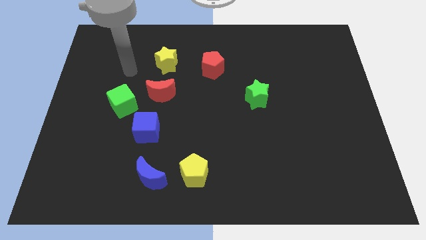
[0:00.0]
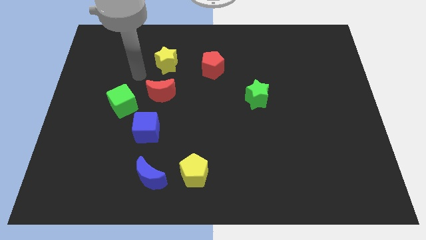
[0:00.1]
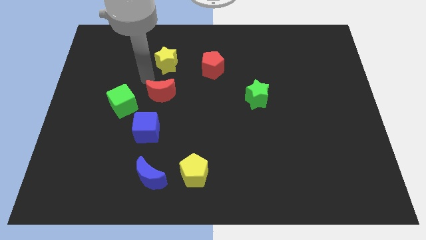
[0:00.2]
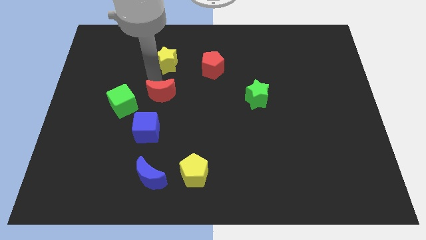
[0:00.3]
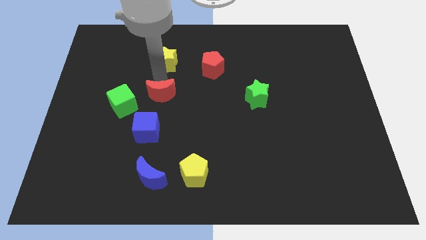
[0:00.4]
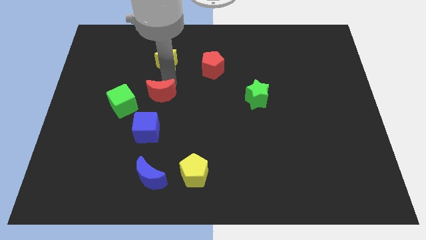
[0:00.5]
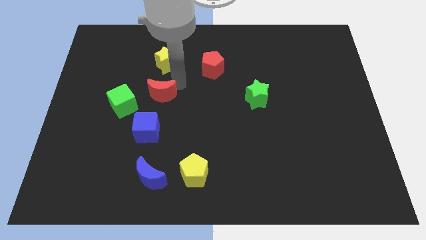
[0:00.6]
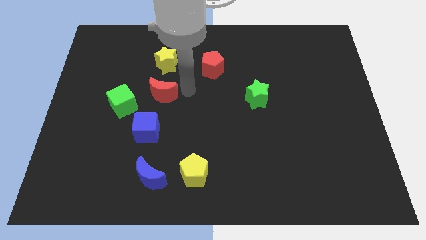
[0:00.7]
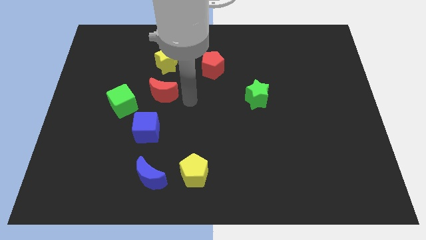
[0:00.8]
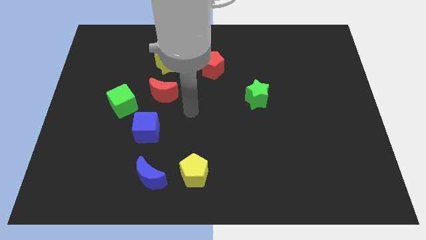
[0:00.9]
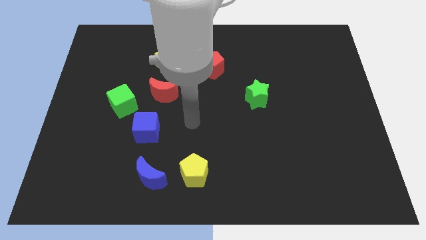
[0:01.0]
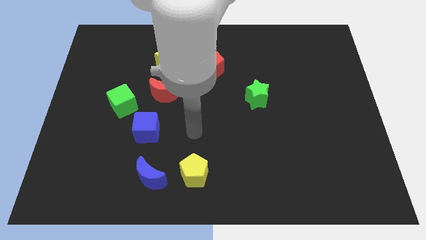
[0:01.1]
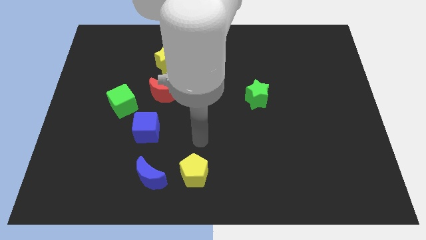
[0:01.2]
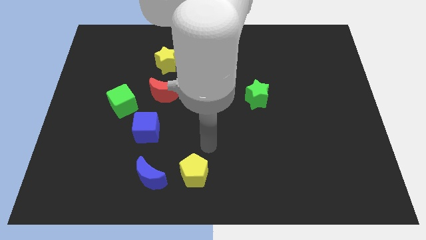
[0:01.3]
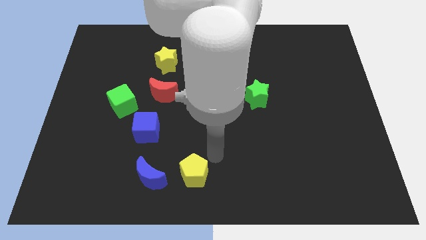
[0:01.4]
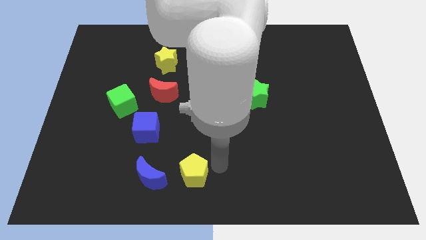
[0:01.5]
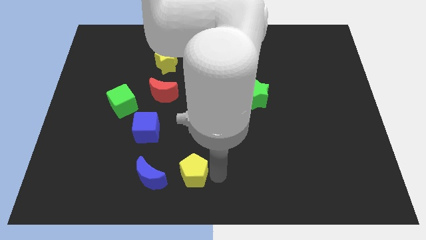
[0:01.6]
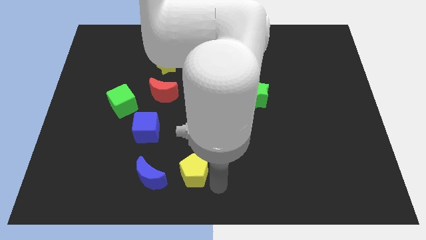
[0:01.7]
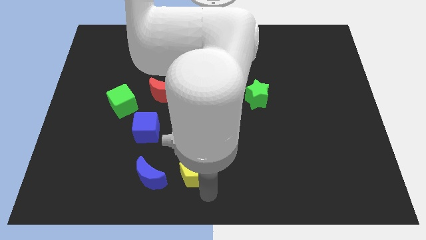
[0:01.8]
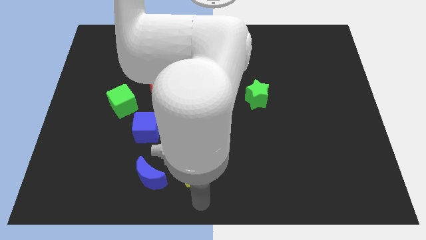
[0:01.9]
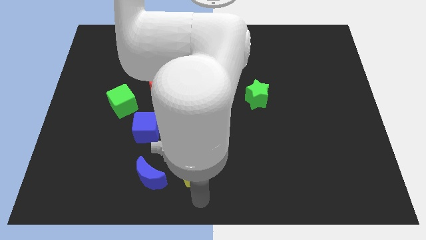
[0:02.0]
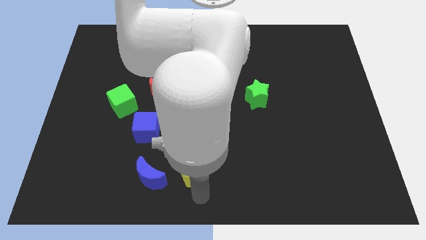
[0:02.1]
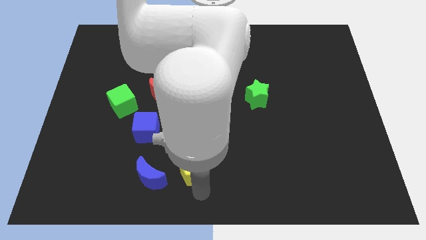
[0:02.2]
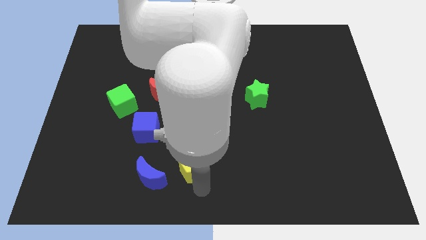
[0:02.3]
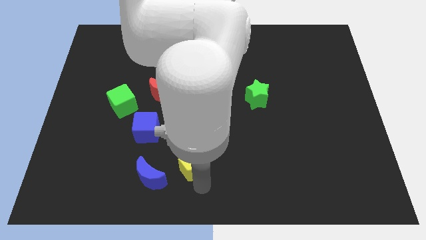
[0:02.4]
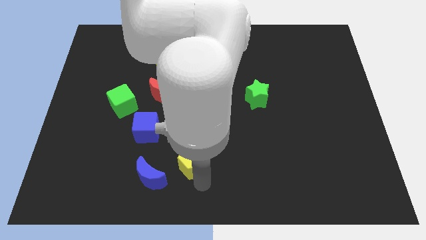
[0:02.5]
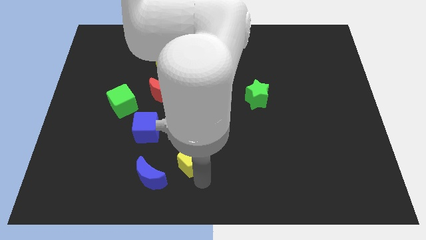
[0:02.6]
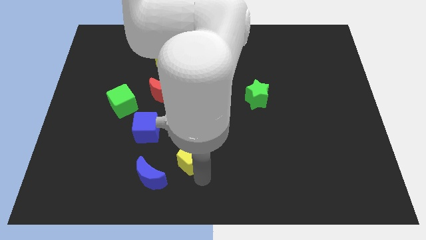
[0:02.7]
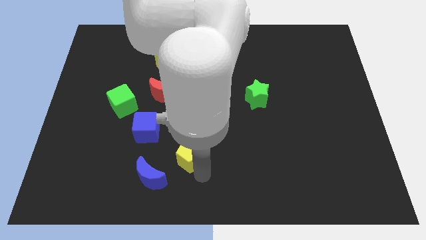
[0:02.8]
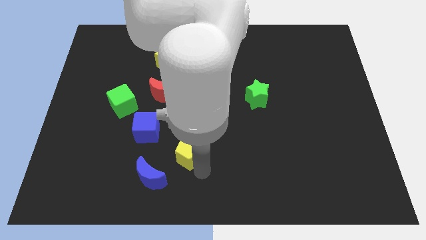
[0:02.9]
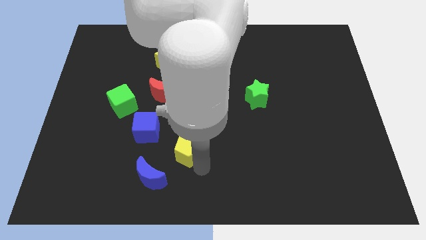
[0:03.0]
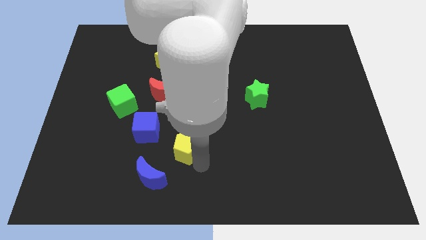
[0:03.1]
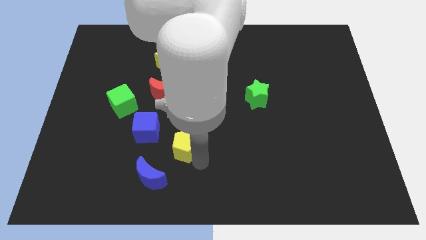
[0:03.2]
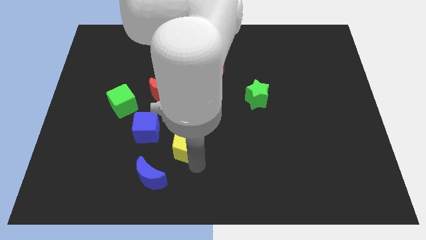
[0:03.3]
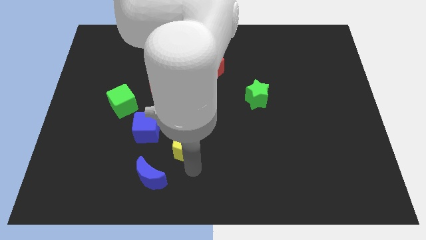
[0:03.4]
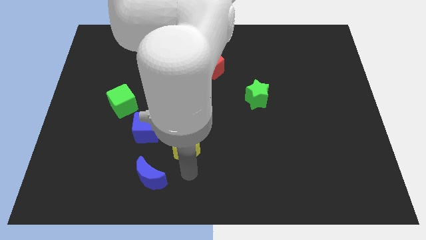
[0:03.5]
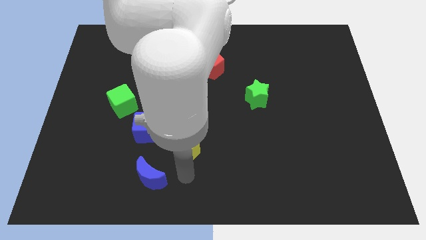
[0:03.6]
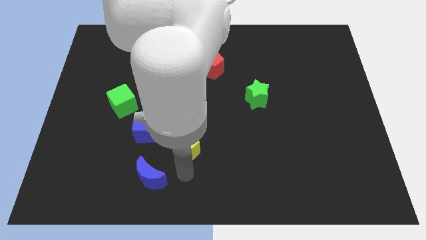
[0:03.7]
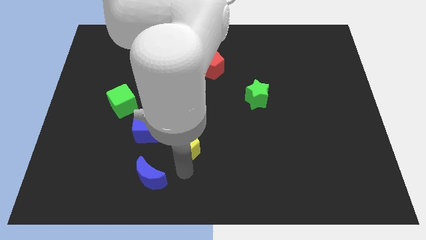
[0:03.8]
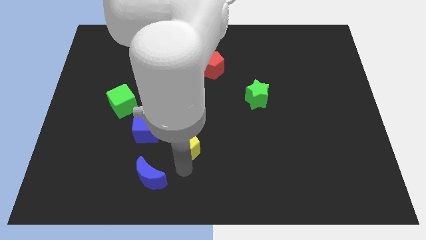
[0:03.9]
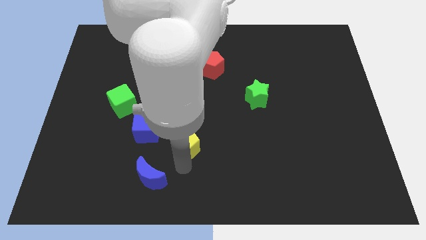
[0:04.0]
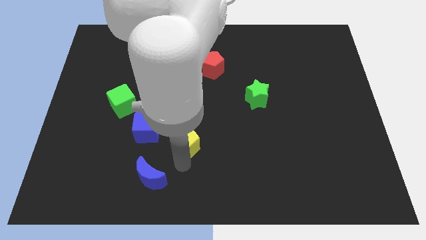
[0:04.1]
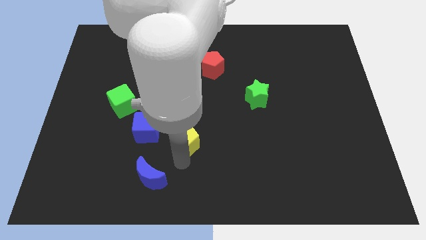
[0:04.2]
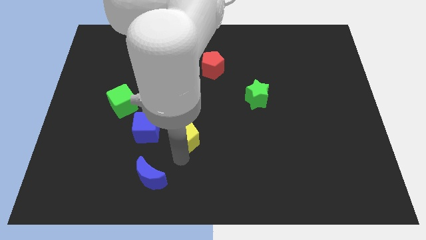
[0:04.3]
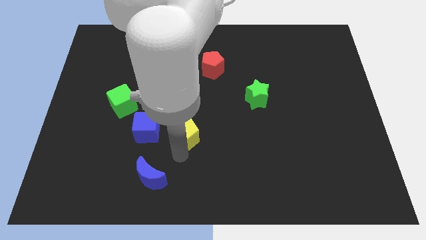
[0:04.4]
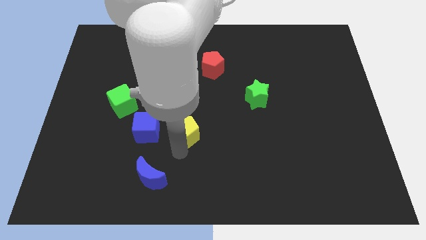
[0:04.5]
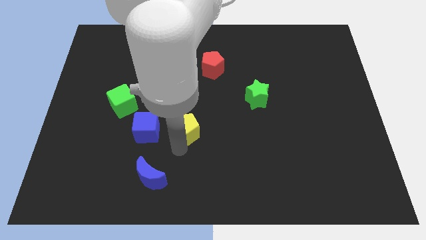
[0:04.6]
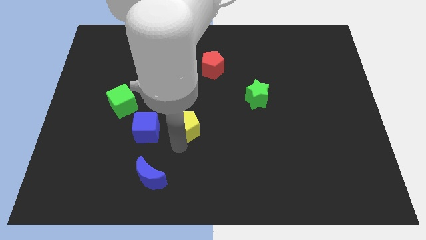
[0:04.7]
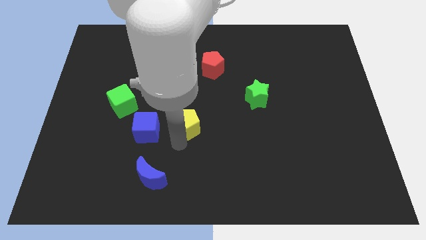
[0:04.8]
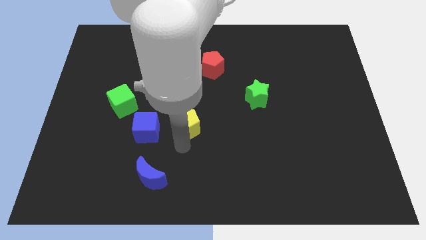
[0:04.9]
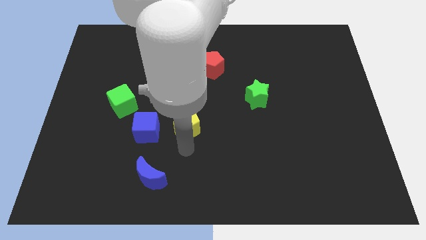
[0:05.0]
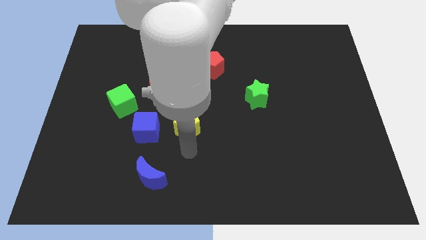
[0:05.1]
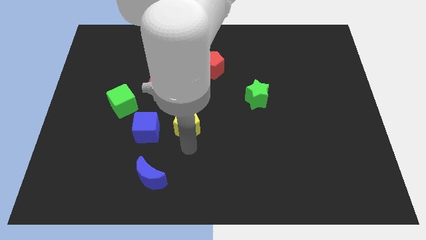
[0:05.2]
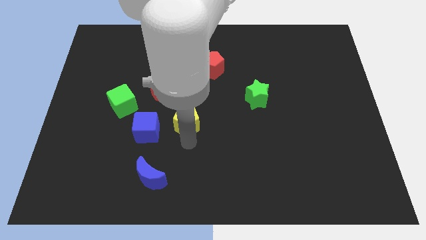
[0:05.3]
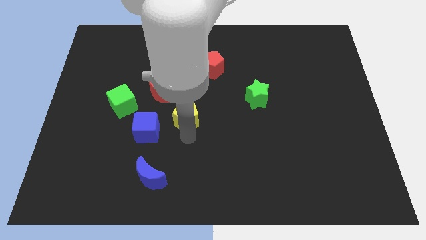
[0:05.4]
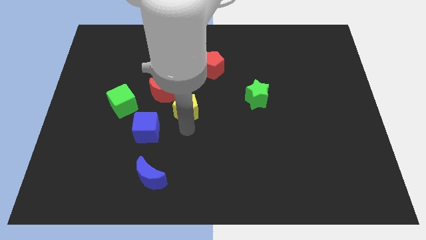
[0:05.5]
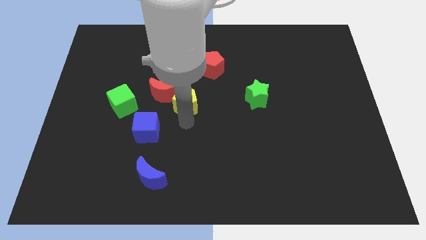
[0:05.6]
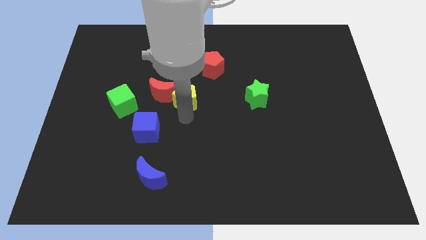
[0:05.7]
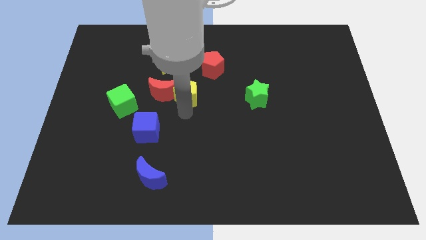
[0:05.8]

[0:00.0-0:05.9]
move the yellow pentagon upwards

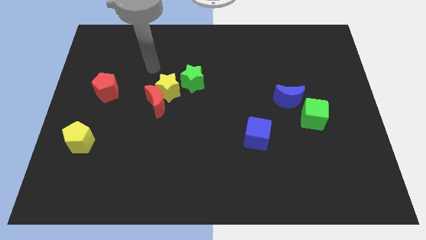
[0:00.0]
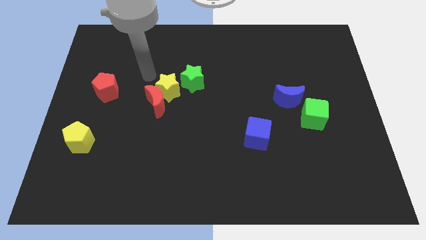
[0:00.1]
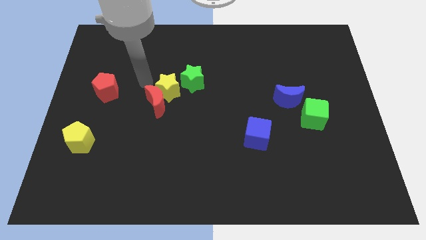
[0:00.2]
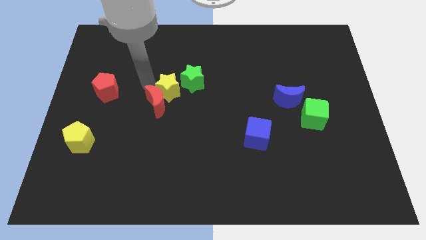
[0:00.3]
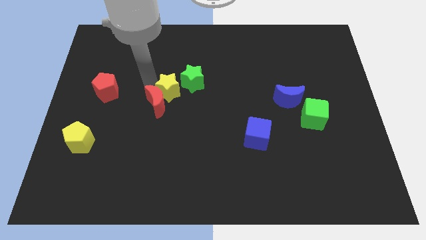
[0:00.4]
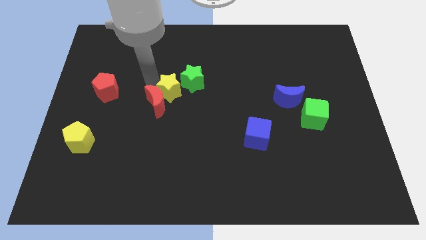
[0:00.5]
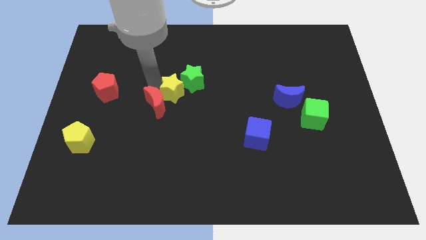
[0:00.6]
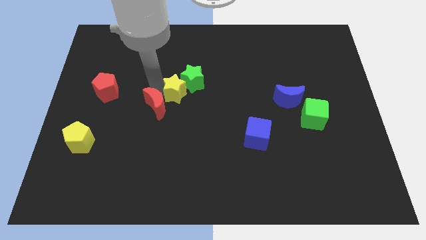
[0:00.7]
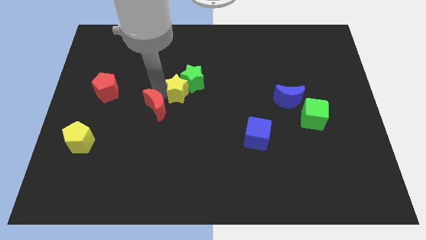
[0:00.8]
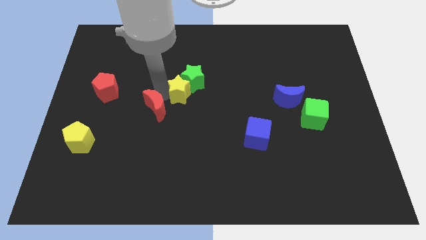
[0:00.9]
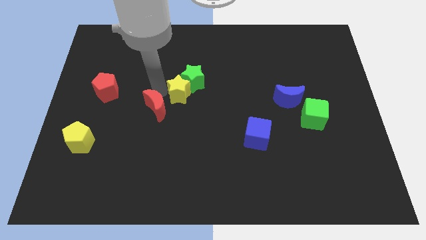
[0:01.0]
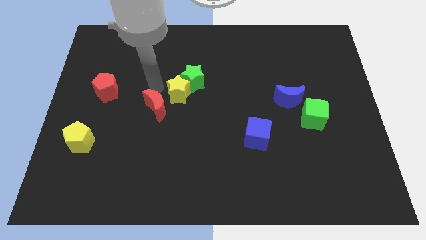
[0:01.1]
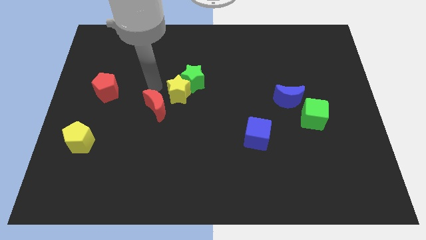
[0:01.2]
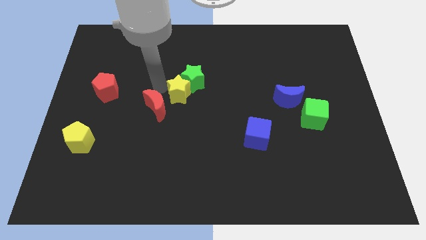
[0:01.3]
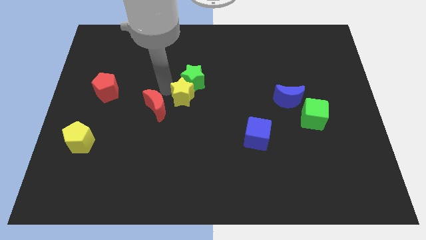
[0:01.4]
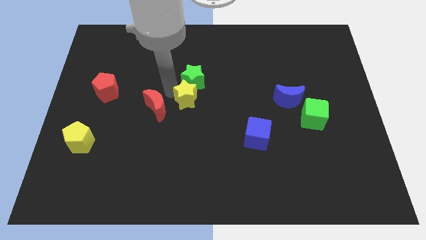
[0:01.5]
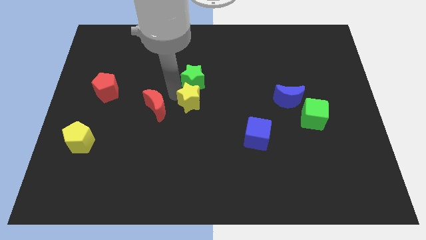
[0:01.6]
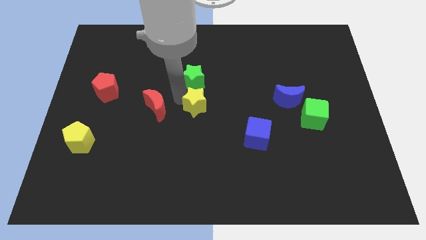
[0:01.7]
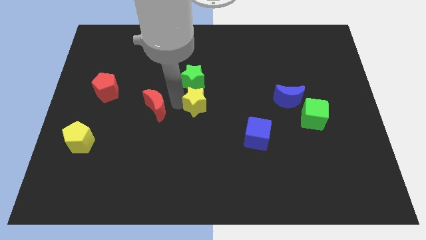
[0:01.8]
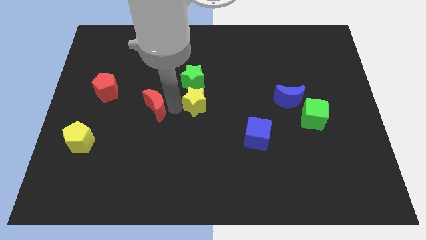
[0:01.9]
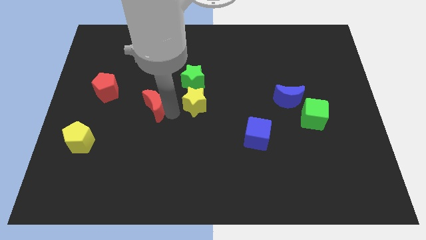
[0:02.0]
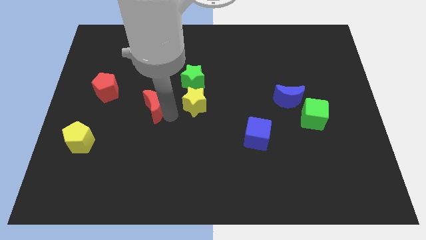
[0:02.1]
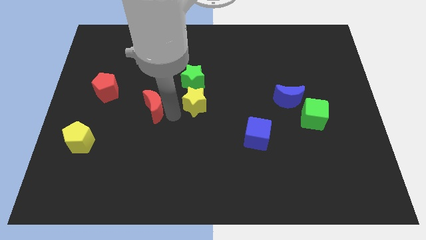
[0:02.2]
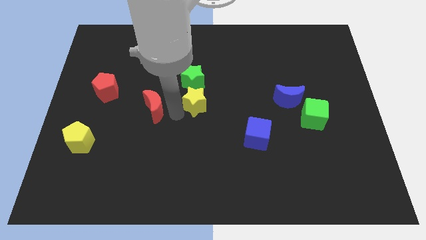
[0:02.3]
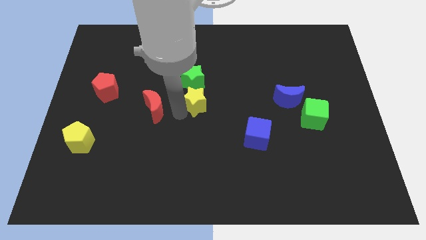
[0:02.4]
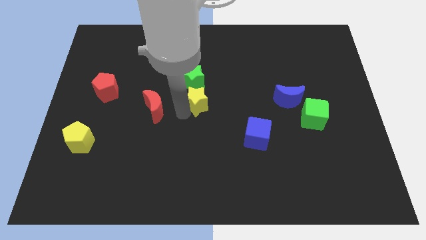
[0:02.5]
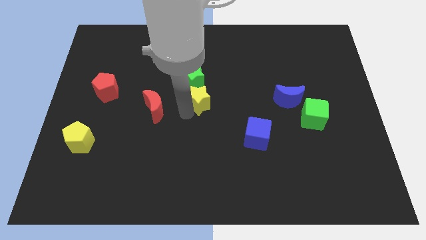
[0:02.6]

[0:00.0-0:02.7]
slide the yellow star to the right a little bit
